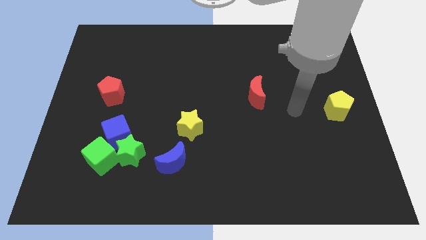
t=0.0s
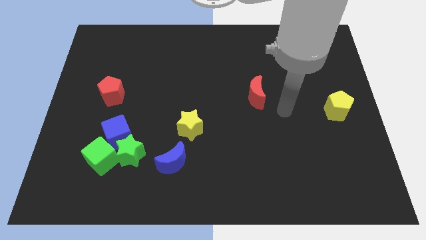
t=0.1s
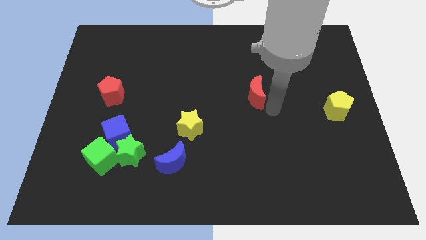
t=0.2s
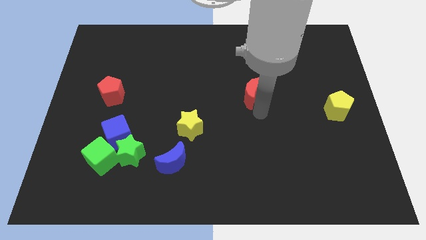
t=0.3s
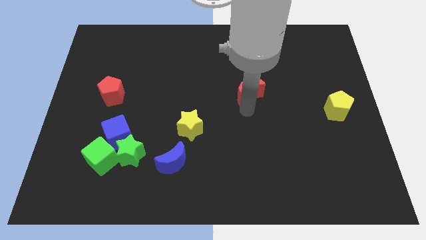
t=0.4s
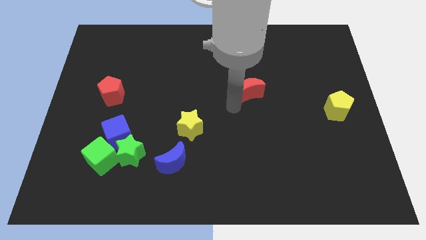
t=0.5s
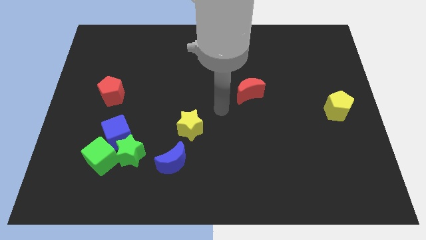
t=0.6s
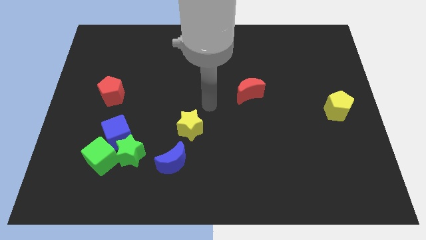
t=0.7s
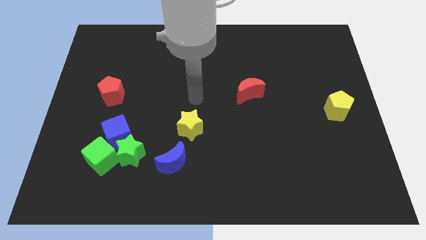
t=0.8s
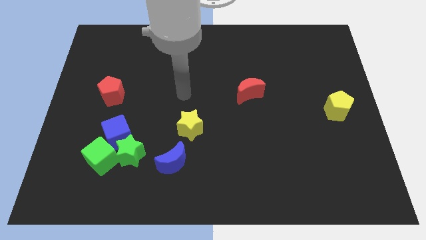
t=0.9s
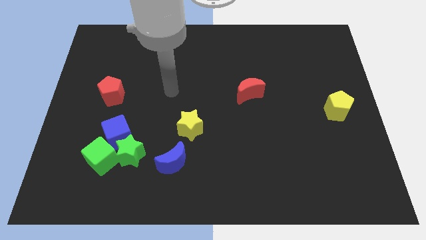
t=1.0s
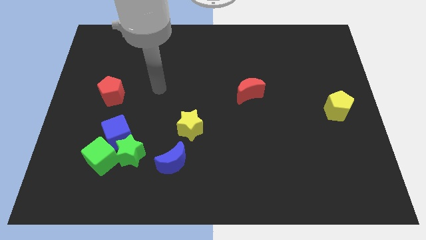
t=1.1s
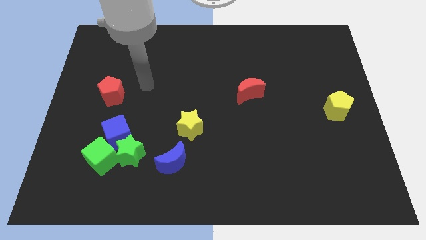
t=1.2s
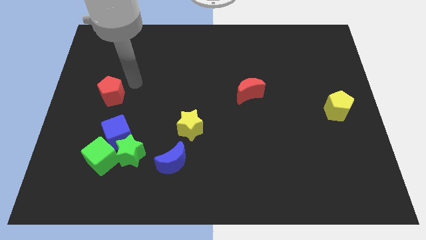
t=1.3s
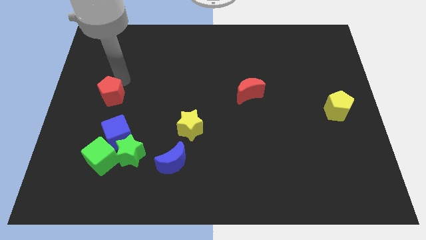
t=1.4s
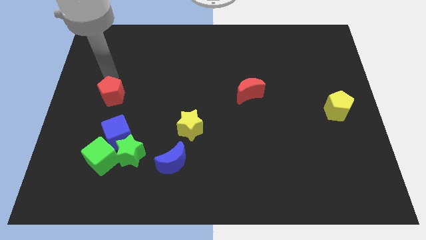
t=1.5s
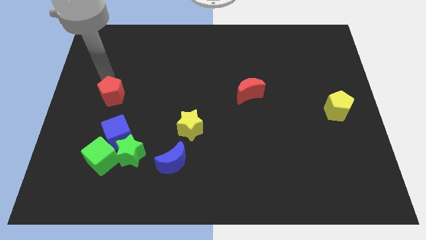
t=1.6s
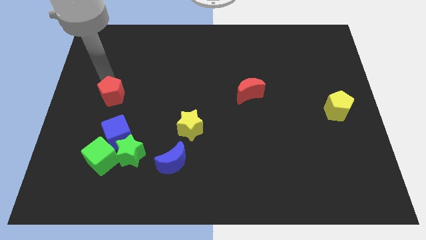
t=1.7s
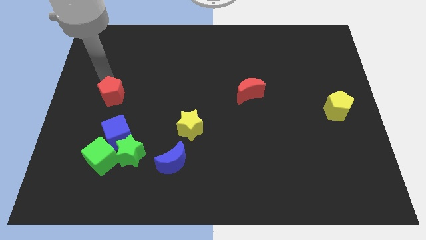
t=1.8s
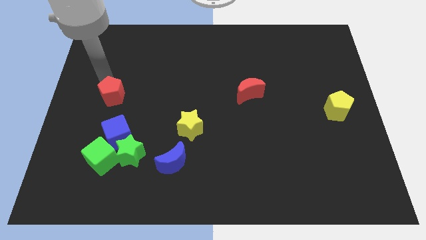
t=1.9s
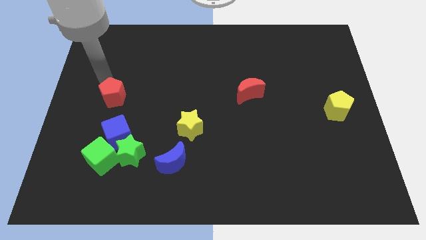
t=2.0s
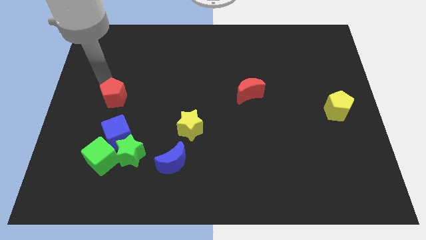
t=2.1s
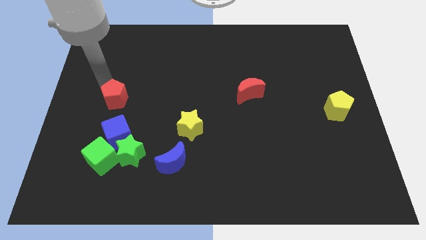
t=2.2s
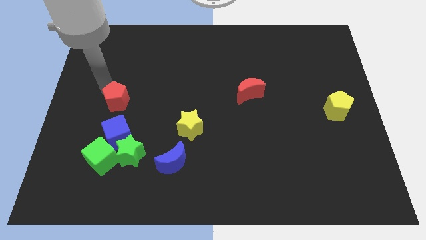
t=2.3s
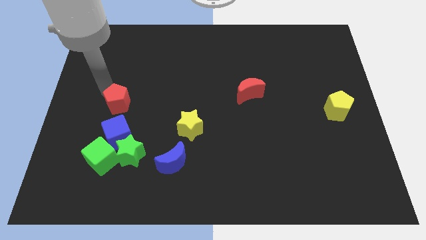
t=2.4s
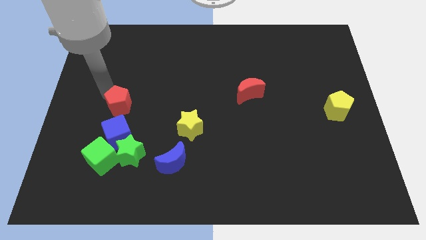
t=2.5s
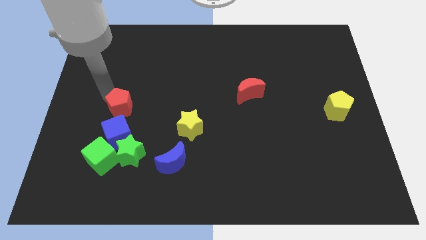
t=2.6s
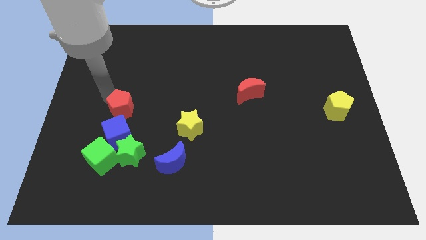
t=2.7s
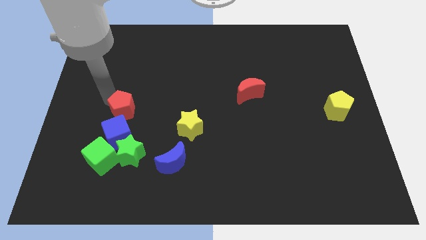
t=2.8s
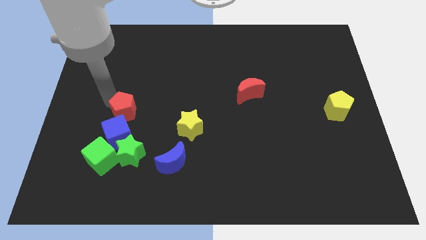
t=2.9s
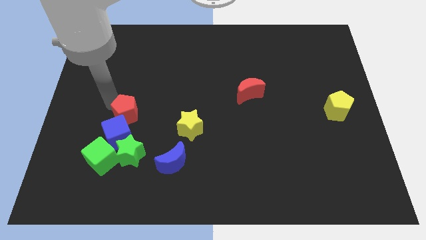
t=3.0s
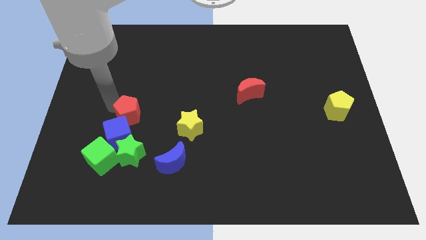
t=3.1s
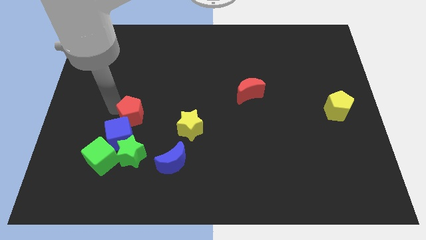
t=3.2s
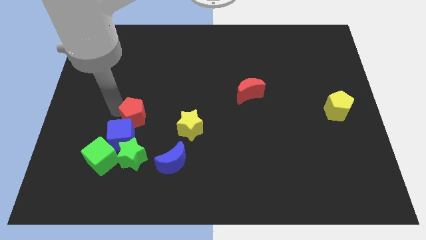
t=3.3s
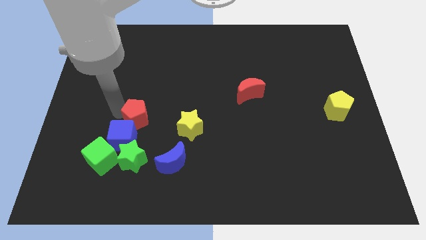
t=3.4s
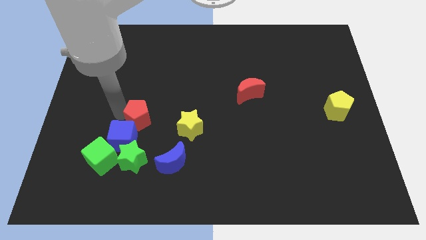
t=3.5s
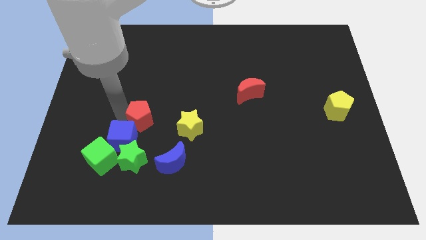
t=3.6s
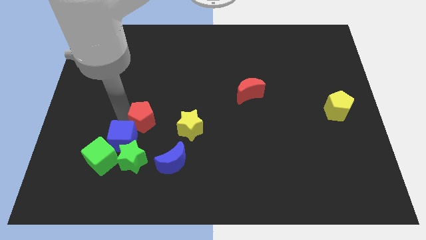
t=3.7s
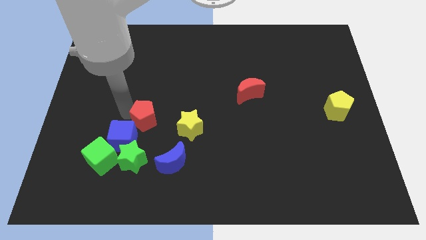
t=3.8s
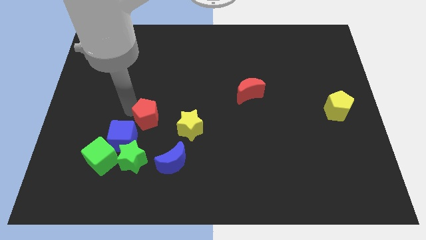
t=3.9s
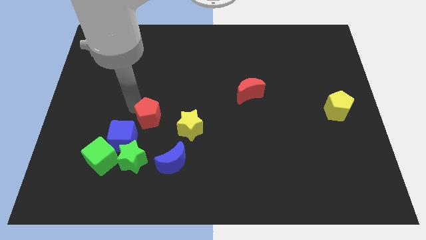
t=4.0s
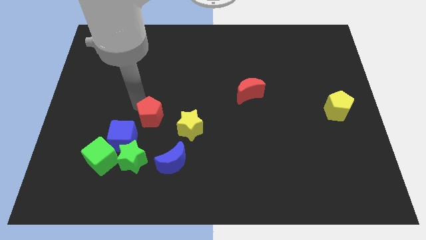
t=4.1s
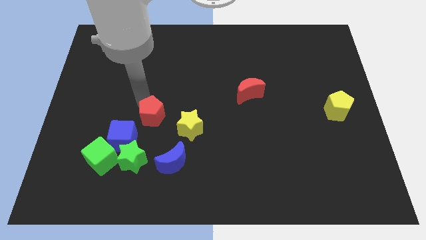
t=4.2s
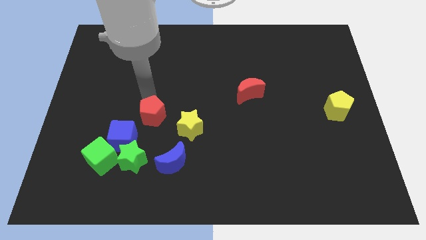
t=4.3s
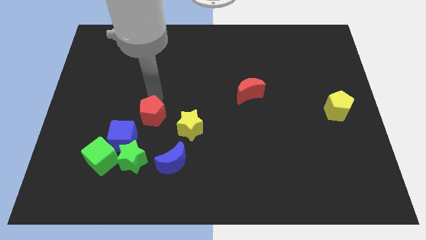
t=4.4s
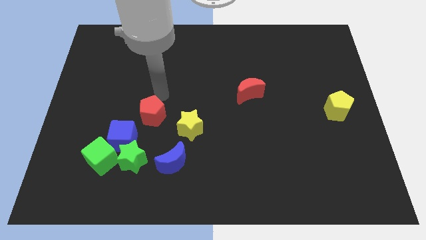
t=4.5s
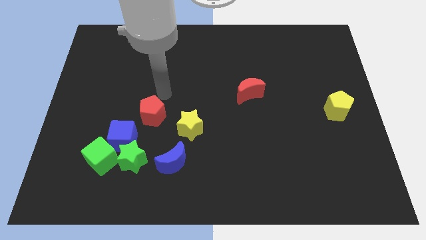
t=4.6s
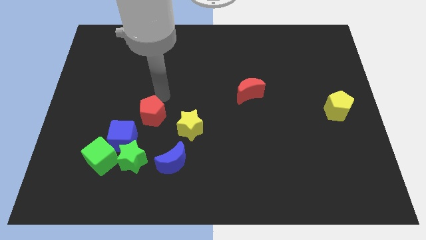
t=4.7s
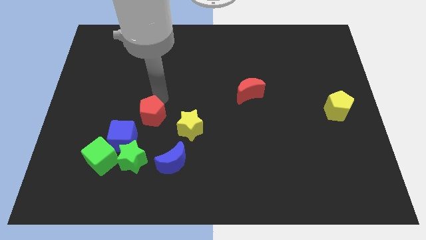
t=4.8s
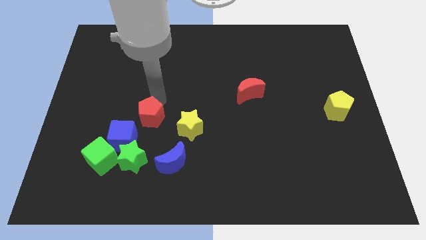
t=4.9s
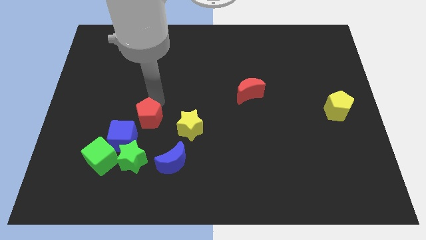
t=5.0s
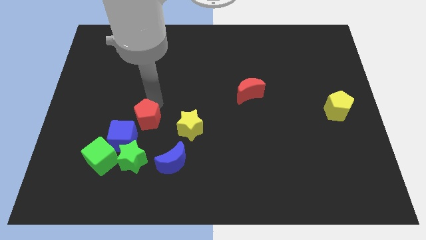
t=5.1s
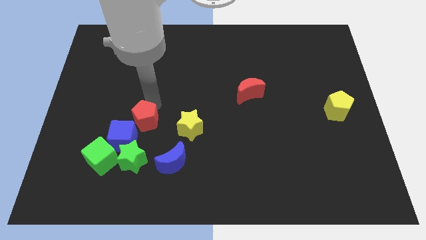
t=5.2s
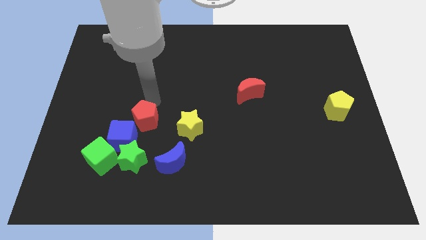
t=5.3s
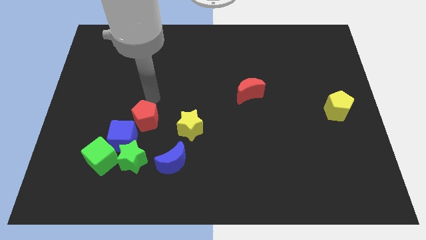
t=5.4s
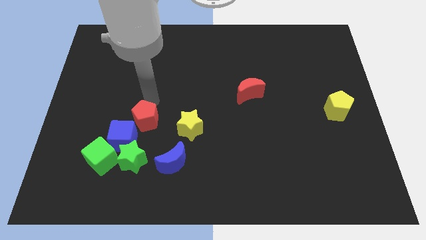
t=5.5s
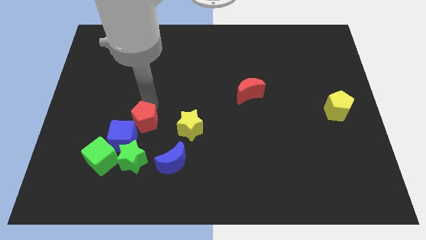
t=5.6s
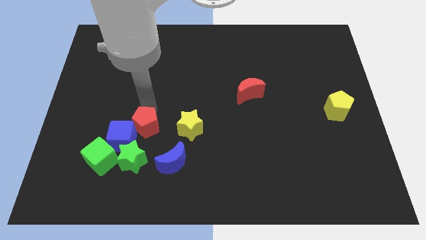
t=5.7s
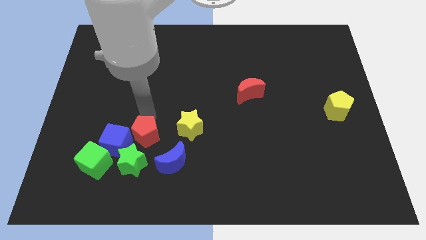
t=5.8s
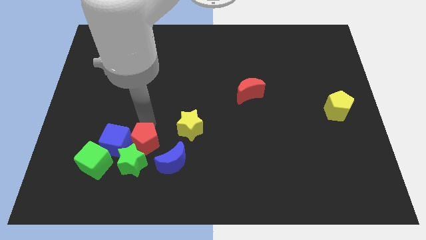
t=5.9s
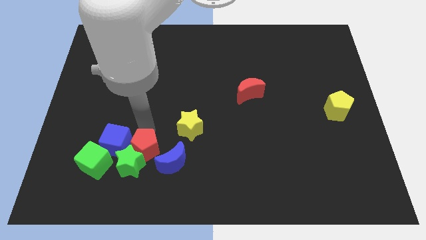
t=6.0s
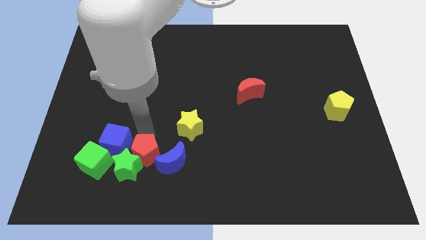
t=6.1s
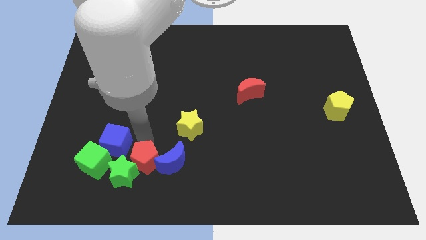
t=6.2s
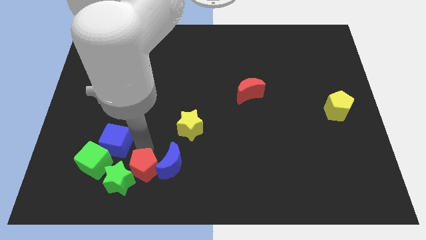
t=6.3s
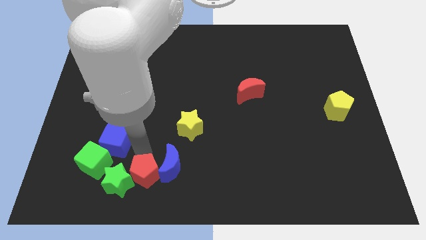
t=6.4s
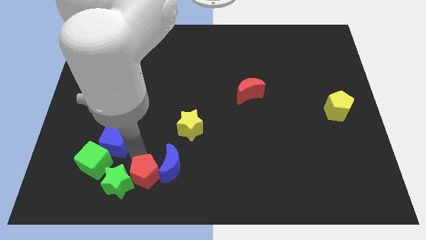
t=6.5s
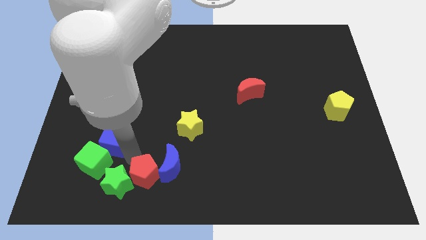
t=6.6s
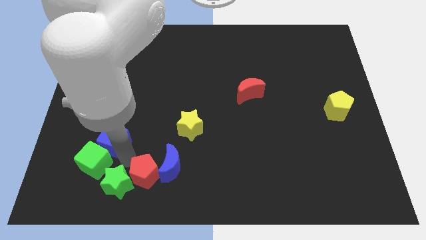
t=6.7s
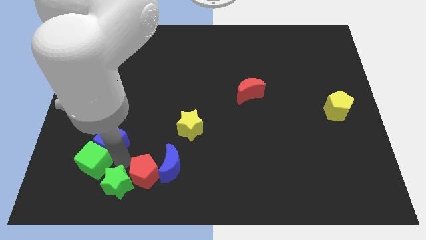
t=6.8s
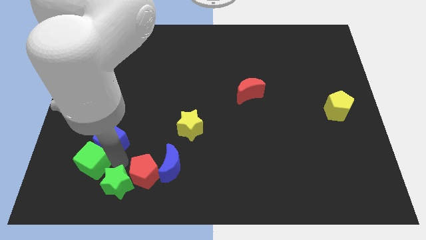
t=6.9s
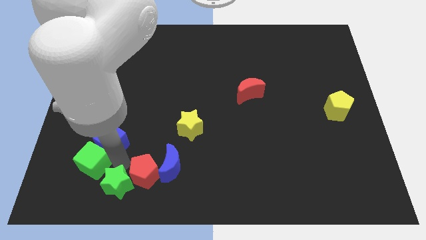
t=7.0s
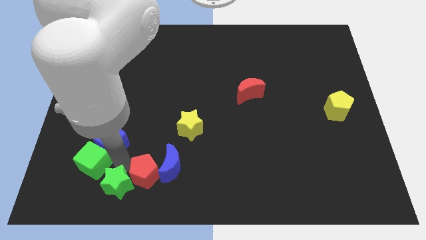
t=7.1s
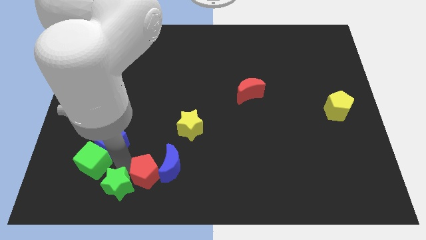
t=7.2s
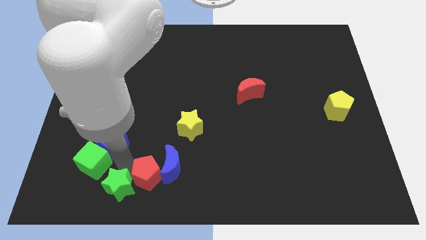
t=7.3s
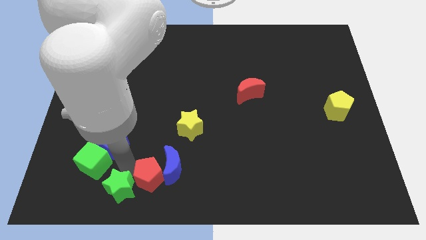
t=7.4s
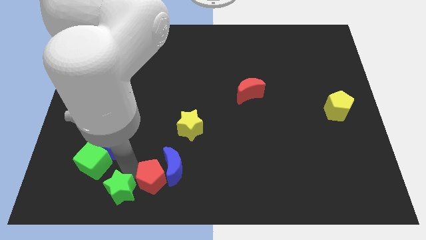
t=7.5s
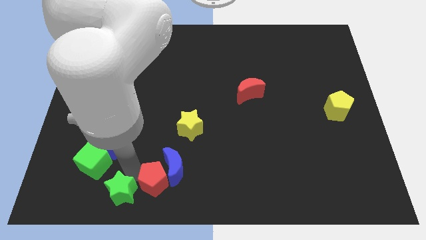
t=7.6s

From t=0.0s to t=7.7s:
push the red pentagon to the bottom side
